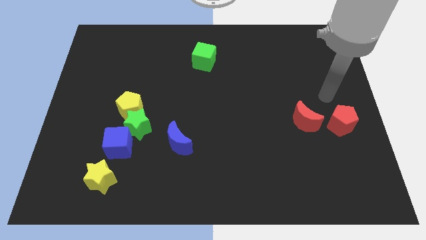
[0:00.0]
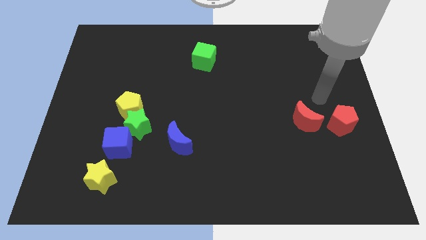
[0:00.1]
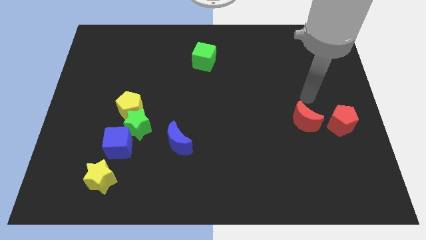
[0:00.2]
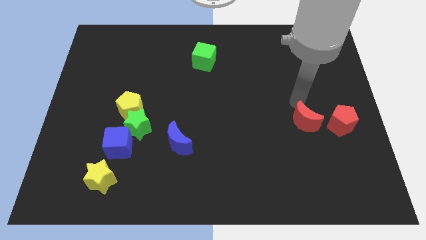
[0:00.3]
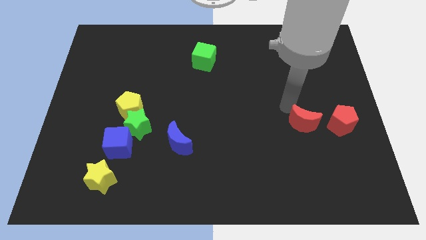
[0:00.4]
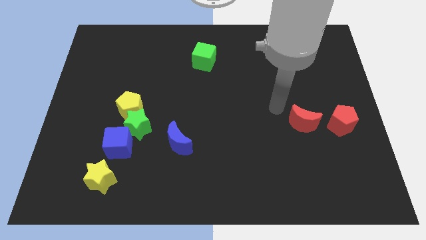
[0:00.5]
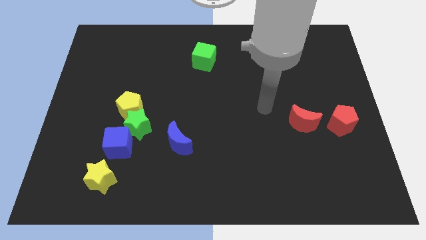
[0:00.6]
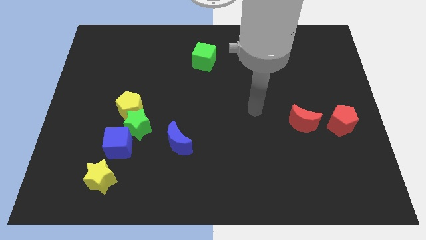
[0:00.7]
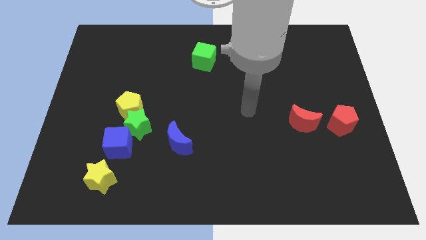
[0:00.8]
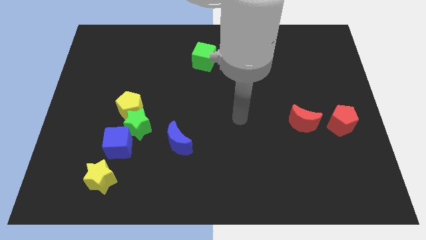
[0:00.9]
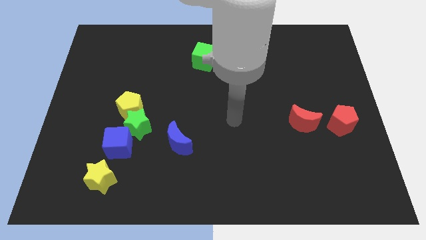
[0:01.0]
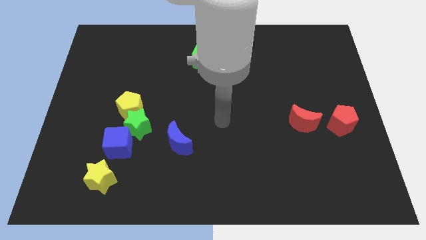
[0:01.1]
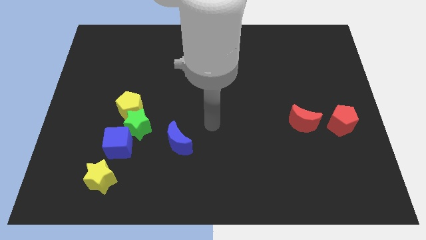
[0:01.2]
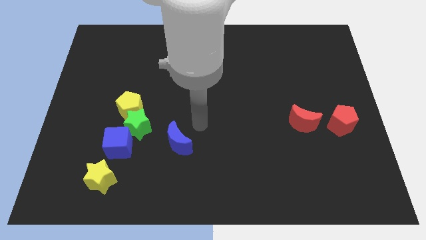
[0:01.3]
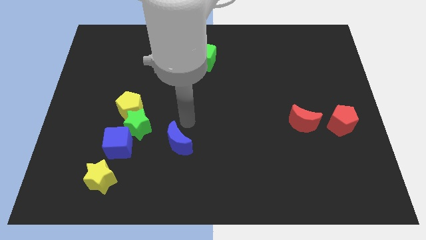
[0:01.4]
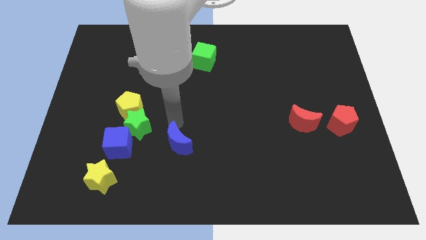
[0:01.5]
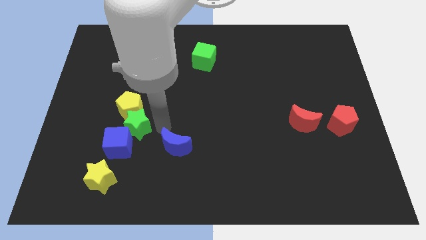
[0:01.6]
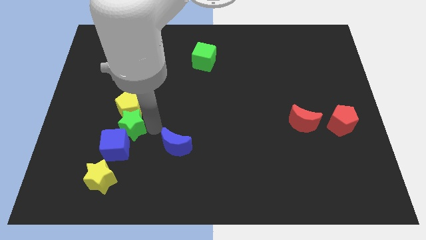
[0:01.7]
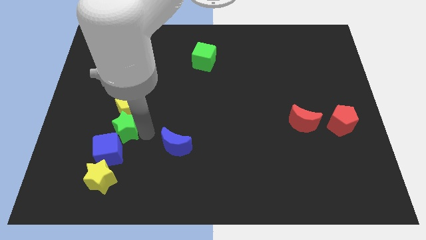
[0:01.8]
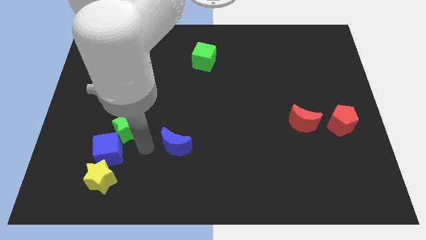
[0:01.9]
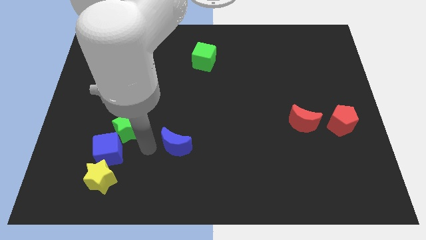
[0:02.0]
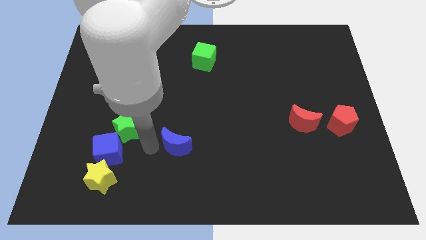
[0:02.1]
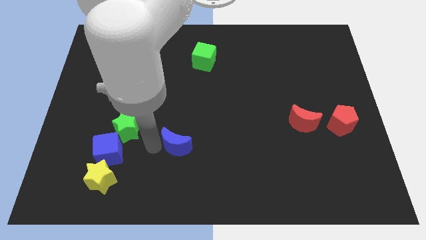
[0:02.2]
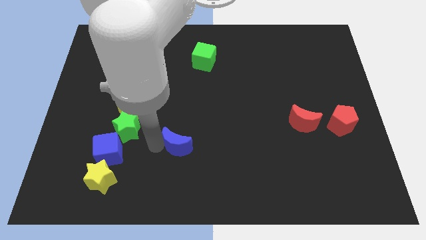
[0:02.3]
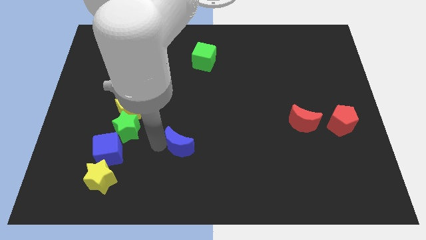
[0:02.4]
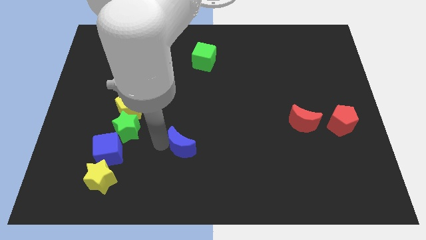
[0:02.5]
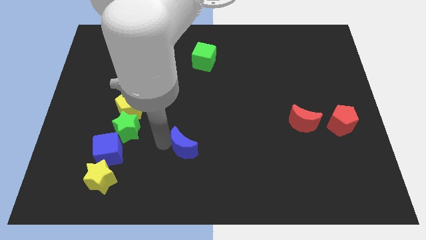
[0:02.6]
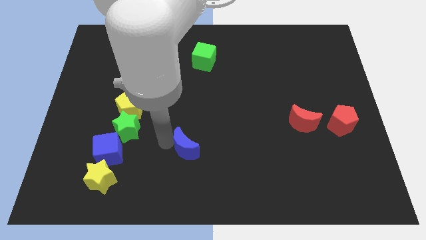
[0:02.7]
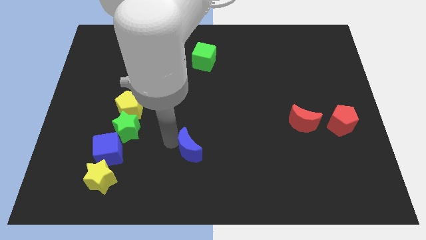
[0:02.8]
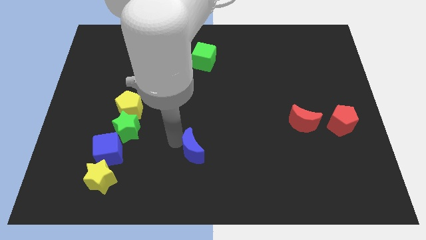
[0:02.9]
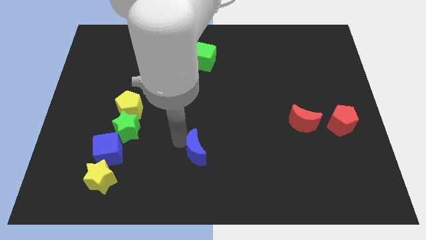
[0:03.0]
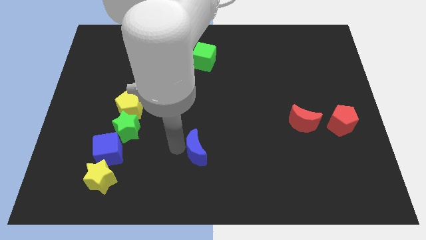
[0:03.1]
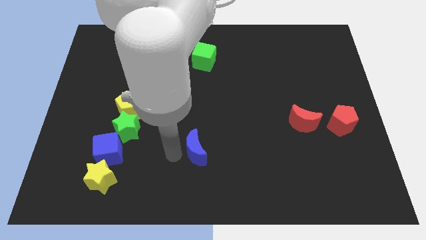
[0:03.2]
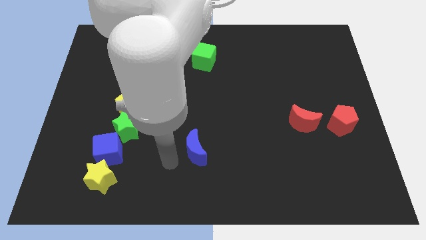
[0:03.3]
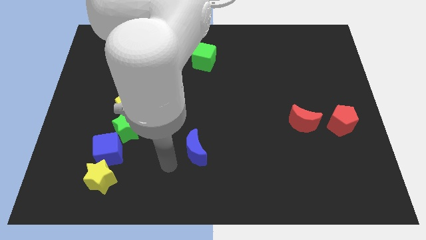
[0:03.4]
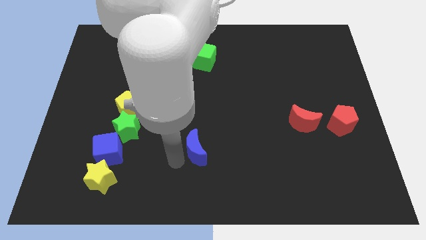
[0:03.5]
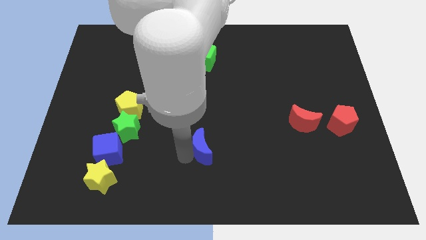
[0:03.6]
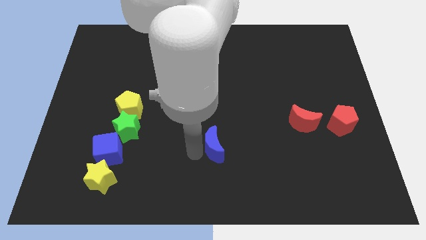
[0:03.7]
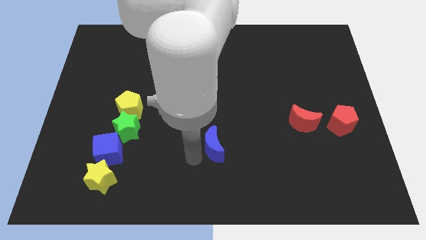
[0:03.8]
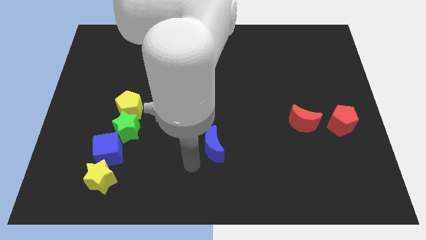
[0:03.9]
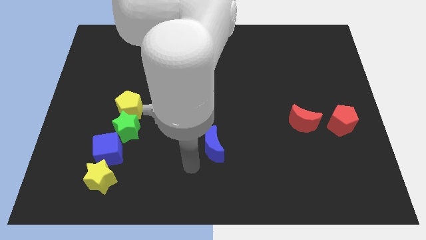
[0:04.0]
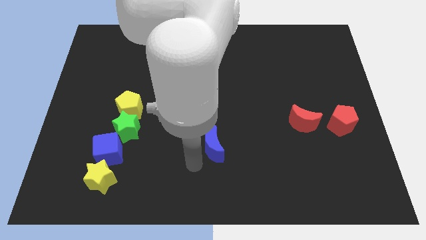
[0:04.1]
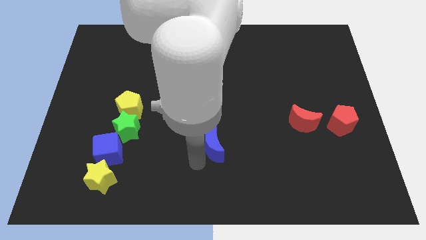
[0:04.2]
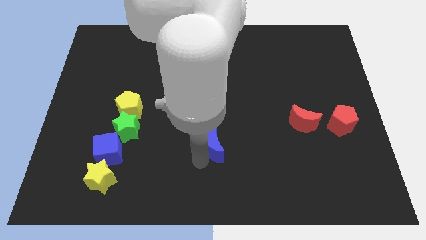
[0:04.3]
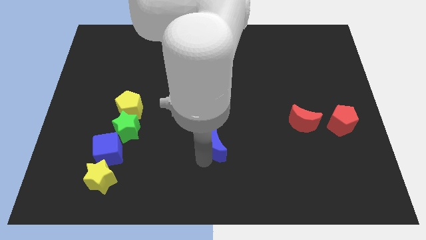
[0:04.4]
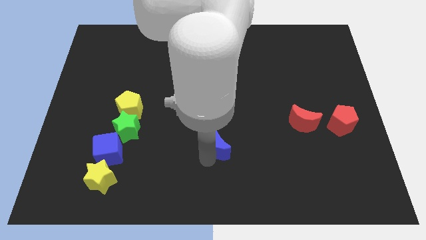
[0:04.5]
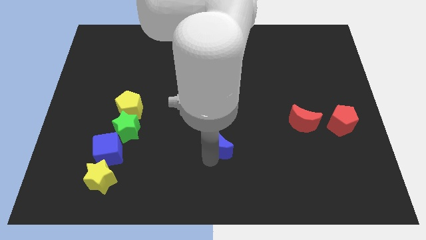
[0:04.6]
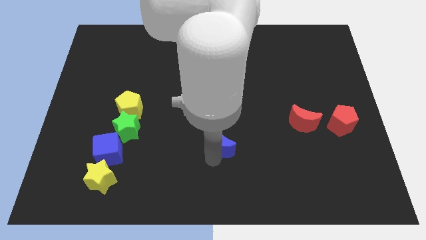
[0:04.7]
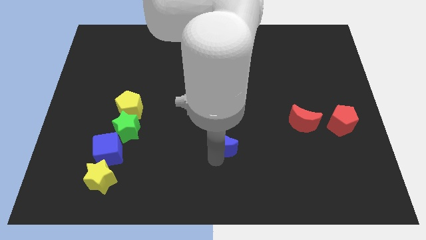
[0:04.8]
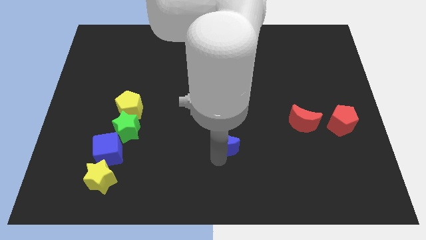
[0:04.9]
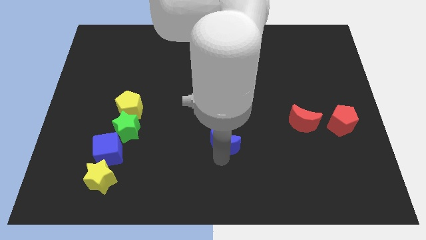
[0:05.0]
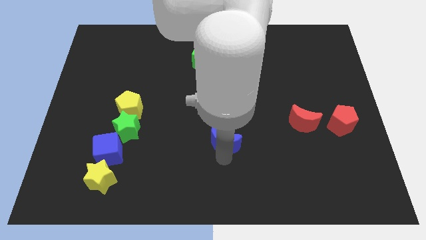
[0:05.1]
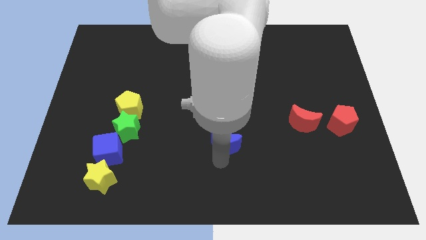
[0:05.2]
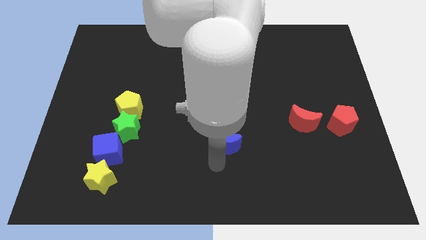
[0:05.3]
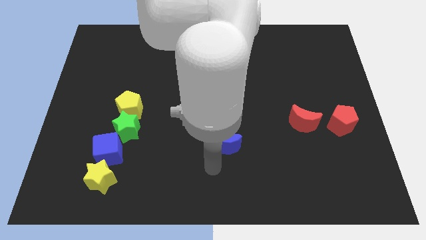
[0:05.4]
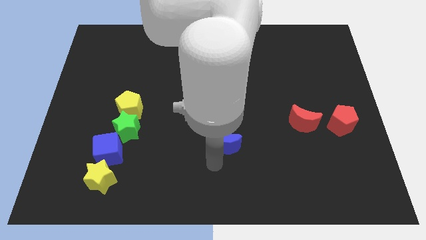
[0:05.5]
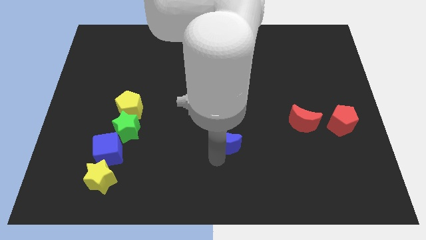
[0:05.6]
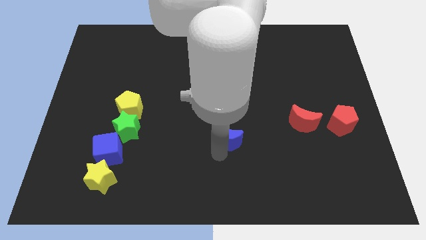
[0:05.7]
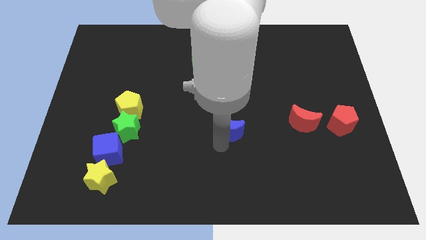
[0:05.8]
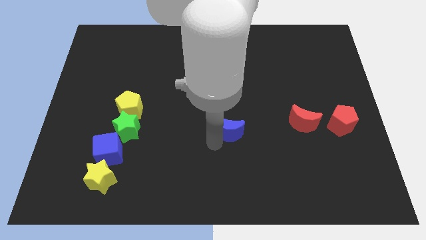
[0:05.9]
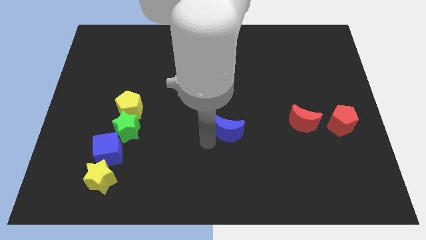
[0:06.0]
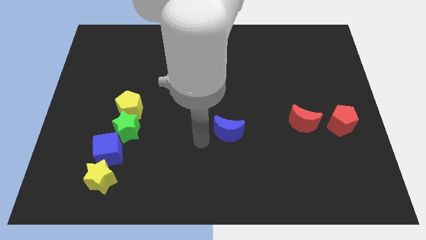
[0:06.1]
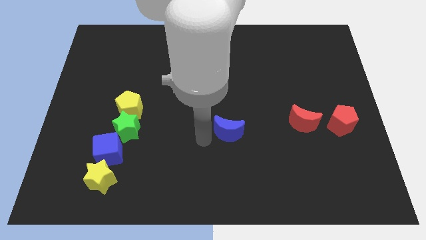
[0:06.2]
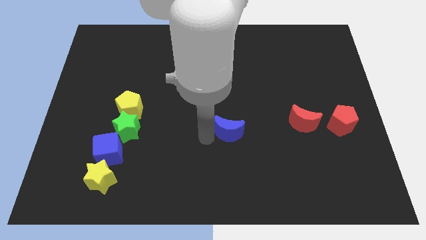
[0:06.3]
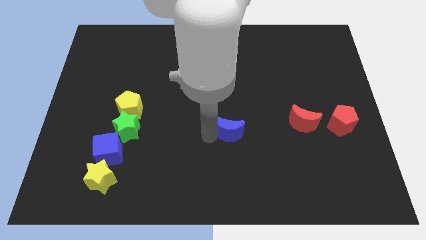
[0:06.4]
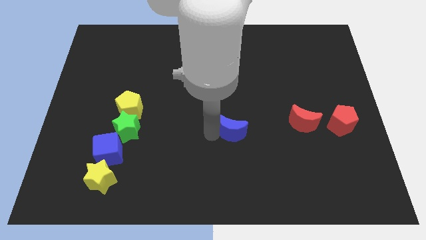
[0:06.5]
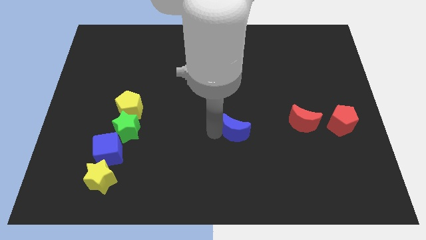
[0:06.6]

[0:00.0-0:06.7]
move the blue moon to the left side of the red moon
